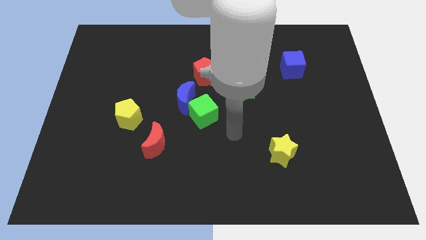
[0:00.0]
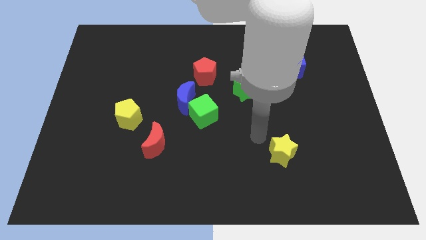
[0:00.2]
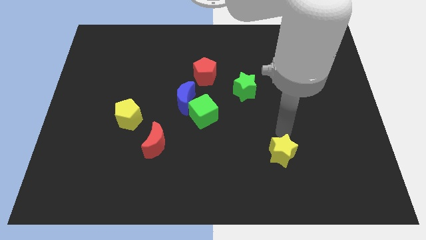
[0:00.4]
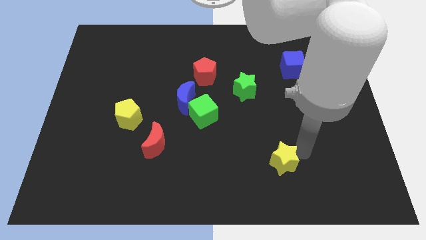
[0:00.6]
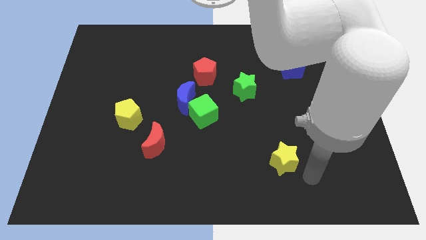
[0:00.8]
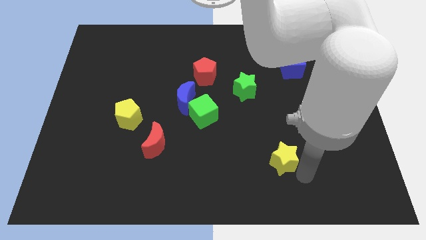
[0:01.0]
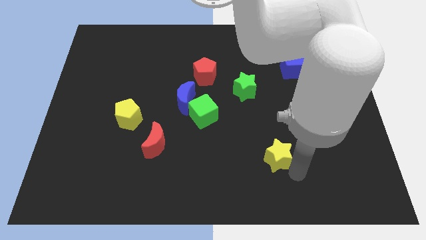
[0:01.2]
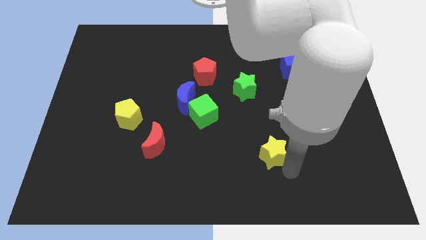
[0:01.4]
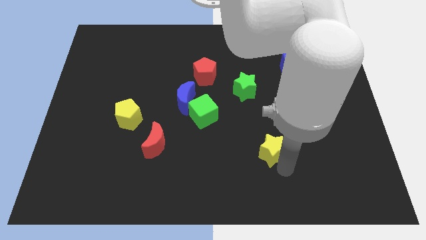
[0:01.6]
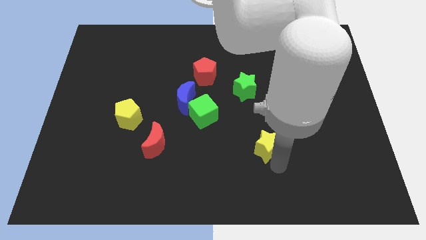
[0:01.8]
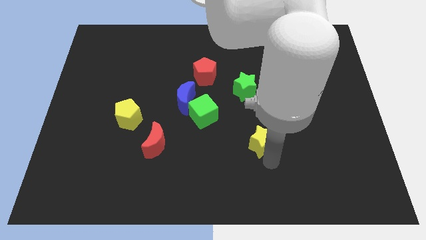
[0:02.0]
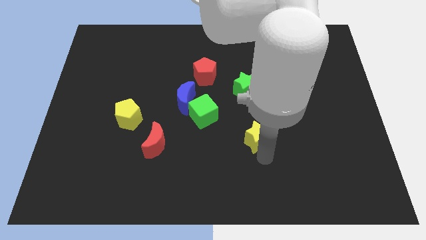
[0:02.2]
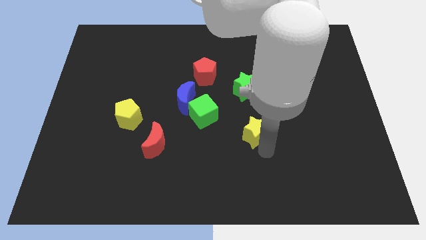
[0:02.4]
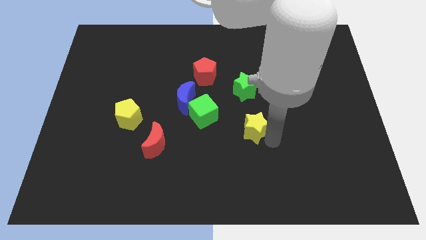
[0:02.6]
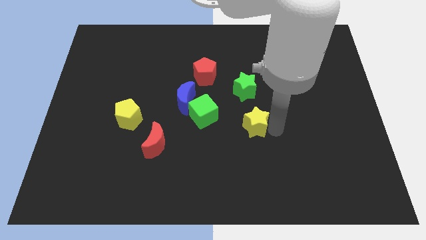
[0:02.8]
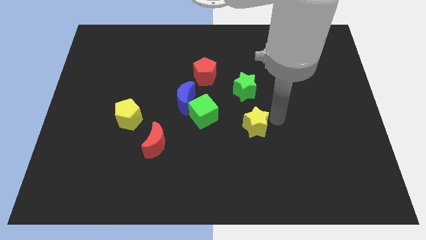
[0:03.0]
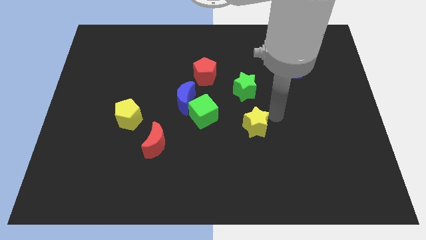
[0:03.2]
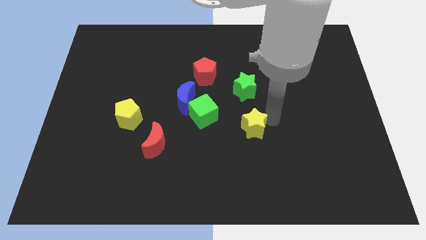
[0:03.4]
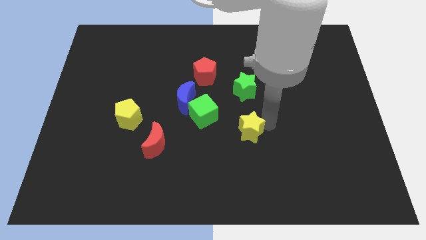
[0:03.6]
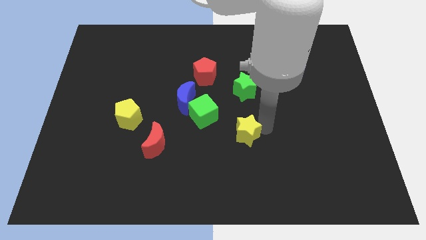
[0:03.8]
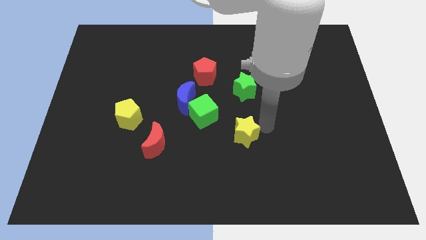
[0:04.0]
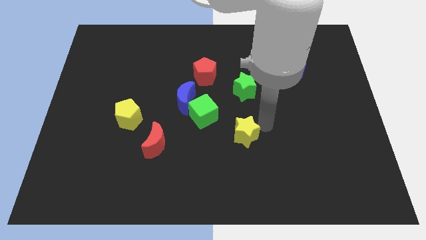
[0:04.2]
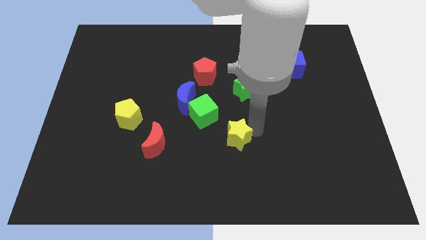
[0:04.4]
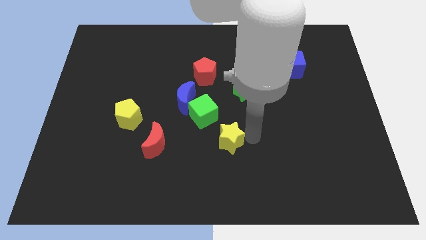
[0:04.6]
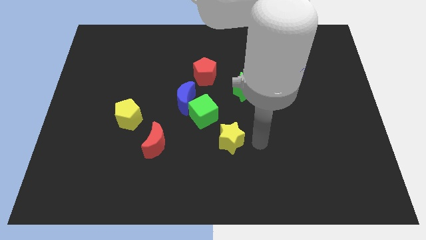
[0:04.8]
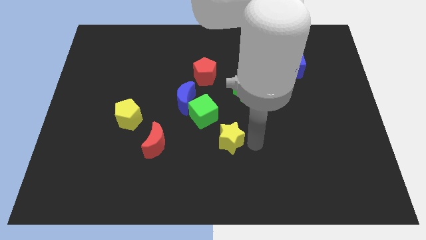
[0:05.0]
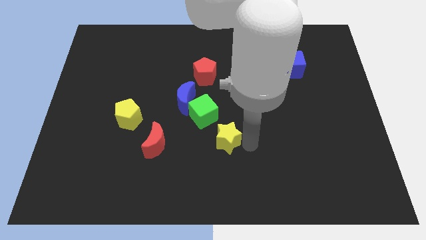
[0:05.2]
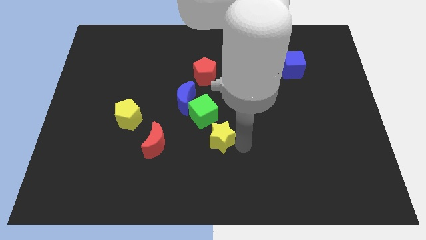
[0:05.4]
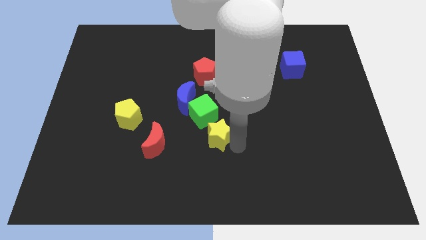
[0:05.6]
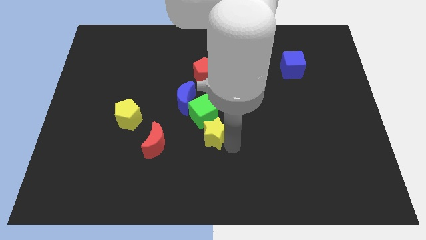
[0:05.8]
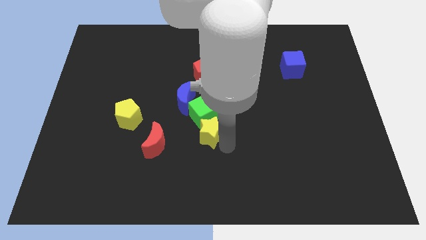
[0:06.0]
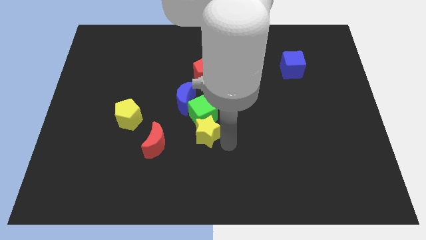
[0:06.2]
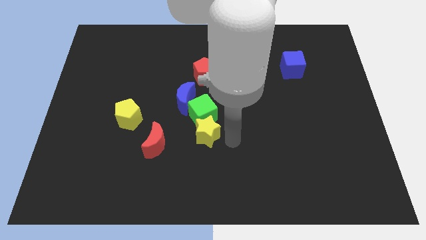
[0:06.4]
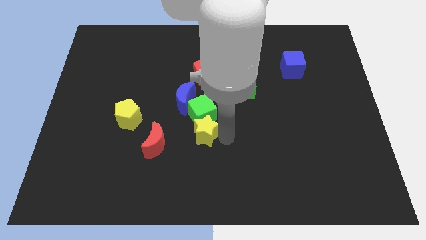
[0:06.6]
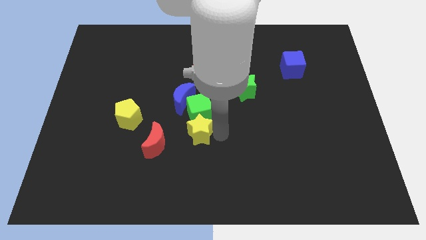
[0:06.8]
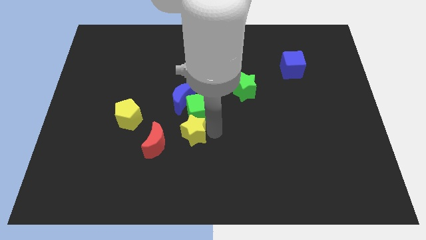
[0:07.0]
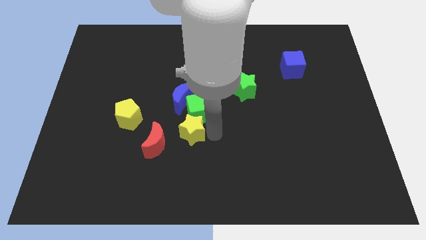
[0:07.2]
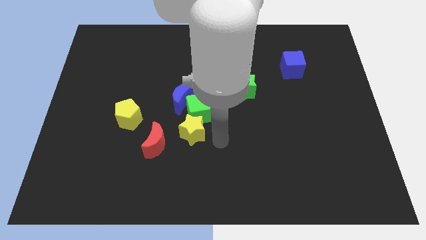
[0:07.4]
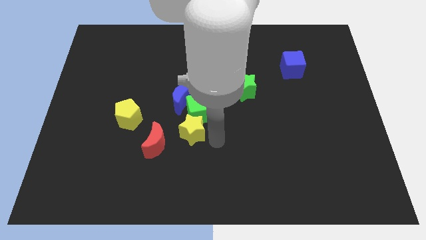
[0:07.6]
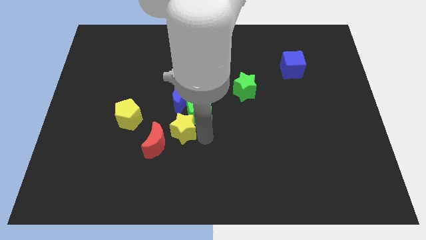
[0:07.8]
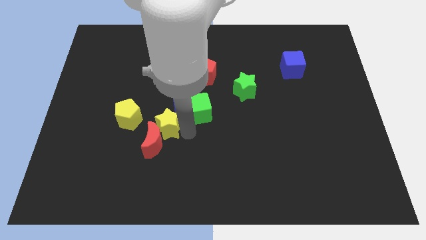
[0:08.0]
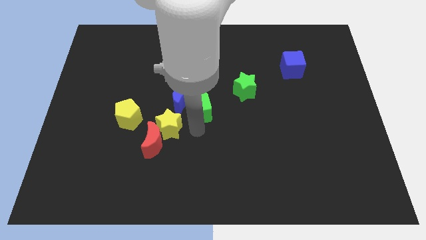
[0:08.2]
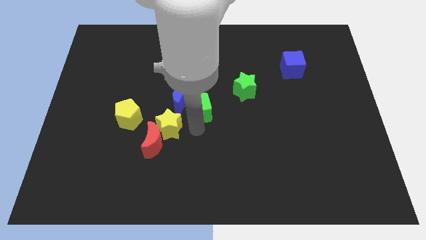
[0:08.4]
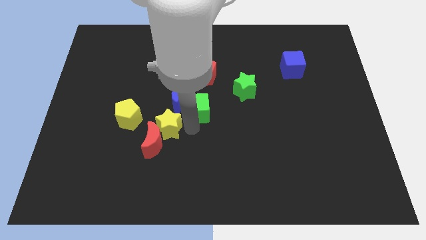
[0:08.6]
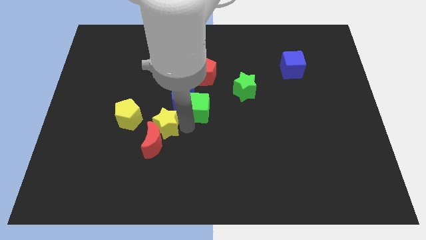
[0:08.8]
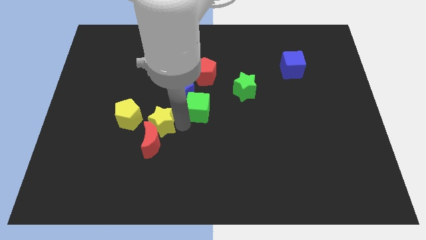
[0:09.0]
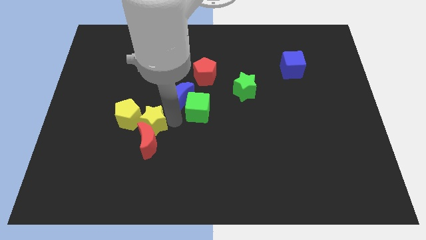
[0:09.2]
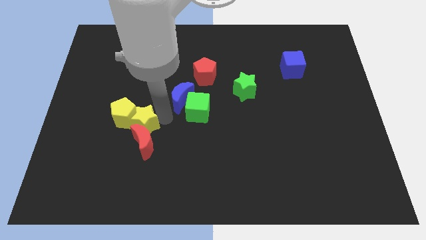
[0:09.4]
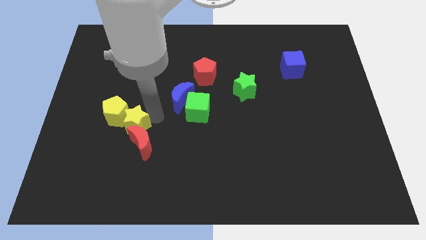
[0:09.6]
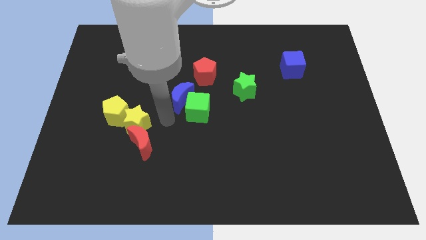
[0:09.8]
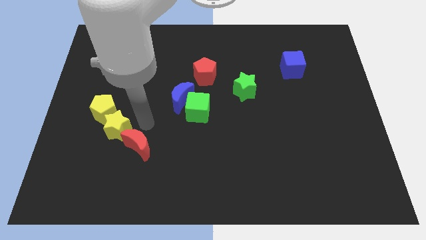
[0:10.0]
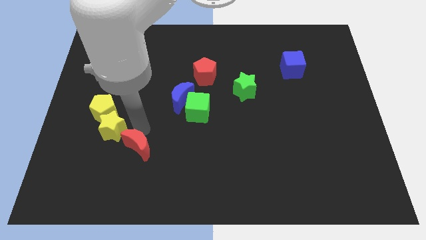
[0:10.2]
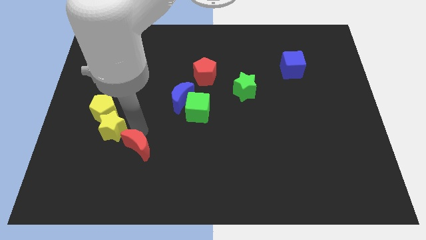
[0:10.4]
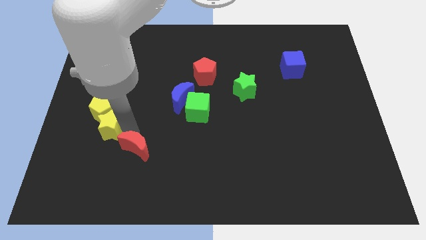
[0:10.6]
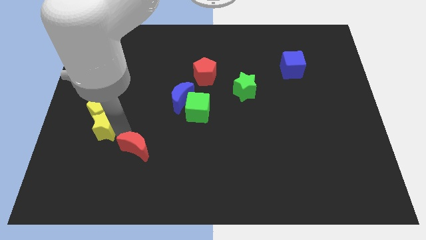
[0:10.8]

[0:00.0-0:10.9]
move the yellow star diagonally down and to the left of the yellow pentagon

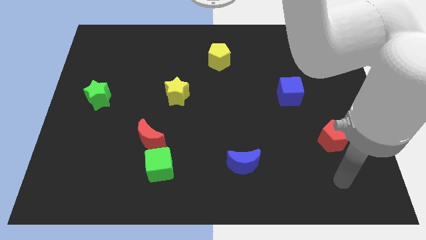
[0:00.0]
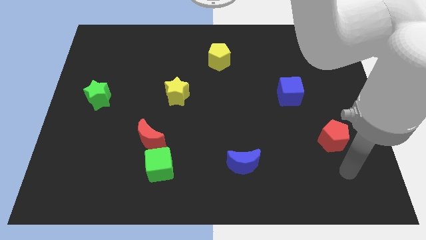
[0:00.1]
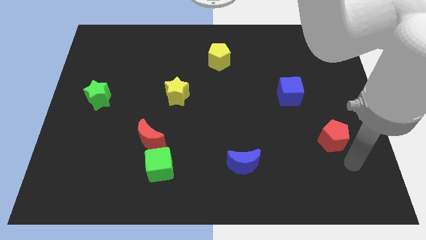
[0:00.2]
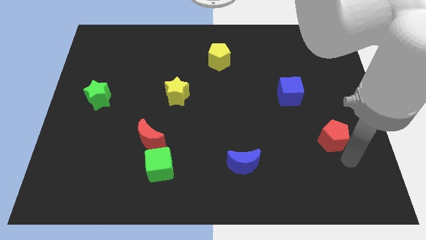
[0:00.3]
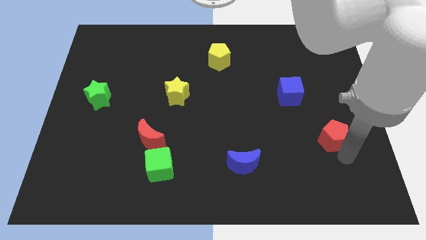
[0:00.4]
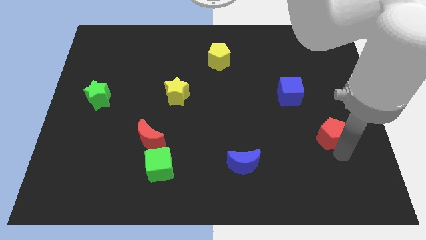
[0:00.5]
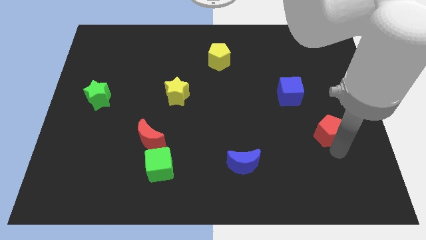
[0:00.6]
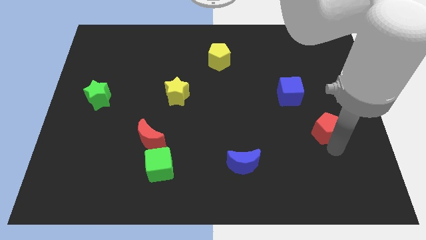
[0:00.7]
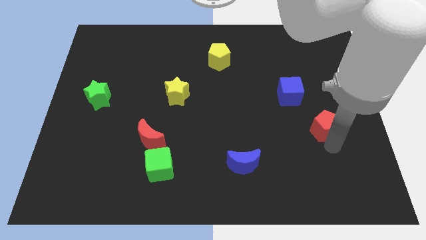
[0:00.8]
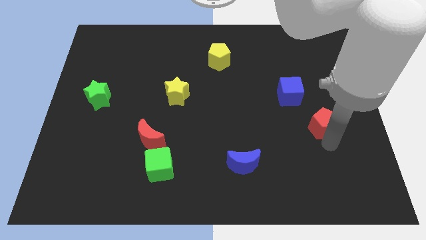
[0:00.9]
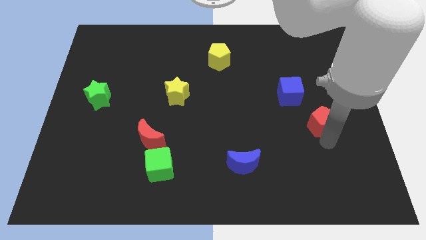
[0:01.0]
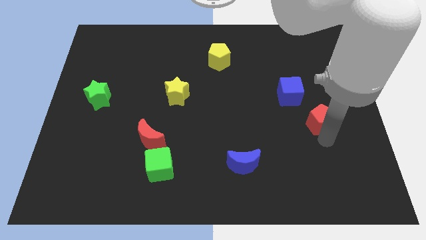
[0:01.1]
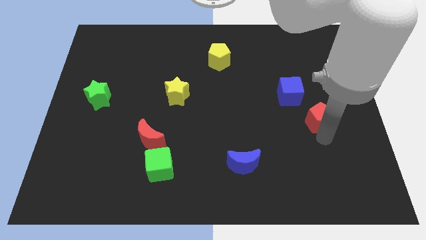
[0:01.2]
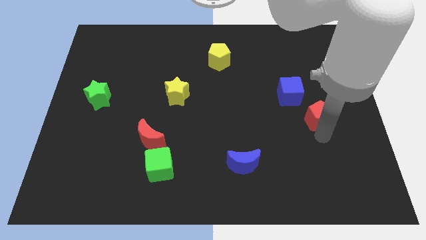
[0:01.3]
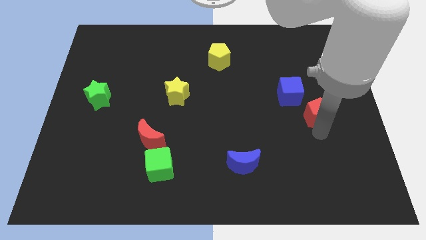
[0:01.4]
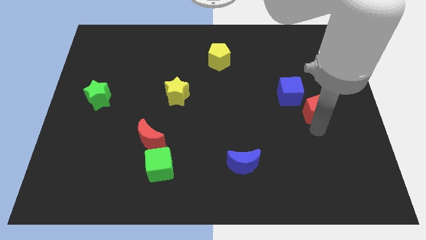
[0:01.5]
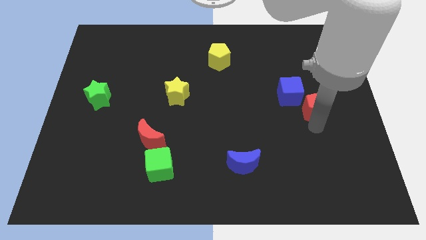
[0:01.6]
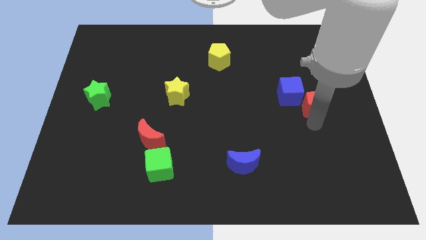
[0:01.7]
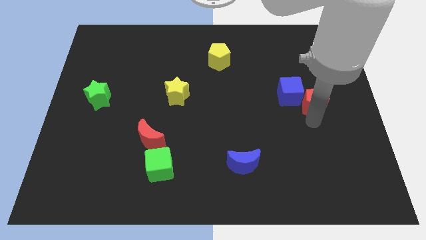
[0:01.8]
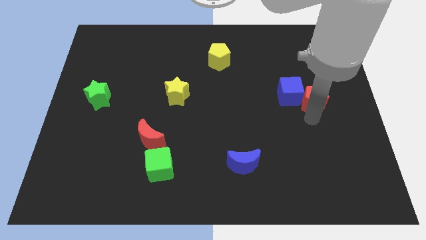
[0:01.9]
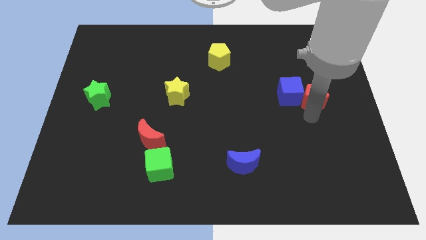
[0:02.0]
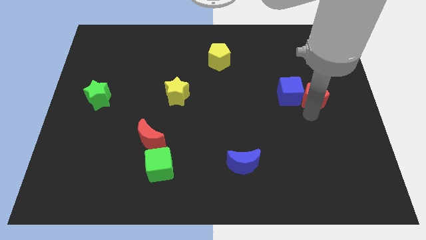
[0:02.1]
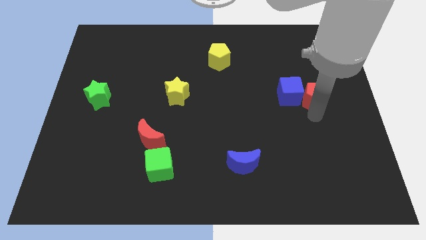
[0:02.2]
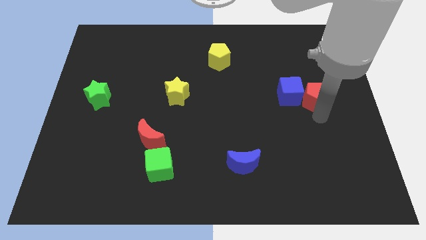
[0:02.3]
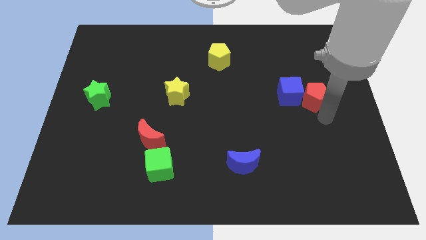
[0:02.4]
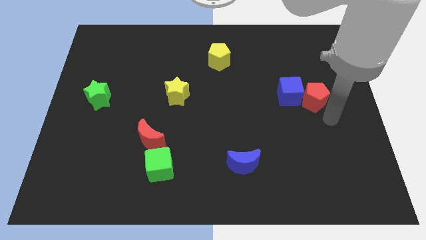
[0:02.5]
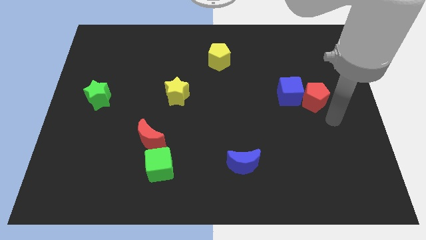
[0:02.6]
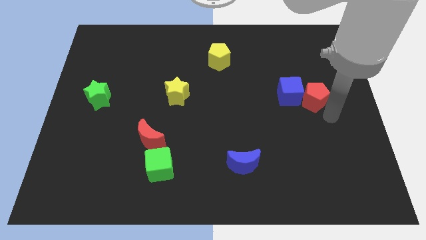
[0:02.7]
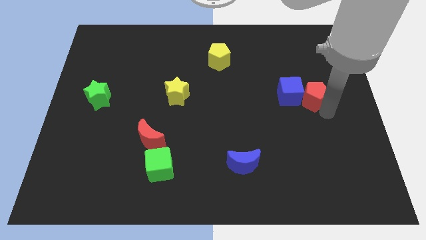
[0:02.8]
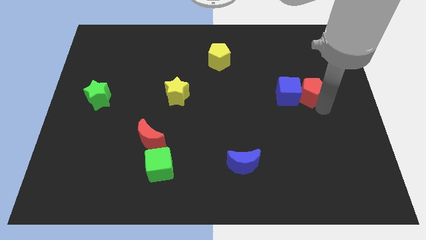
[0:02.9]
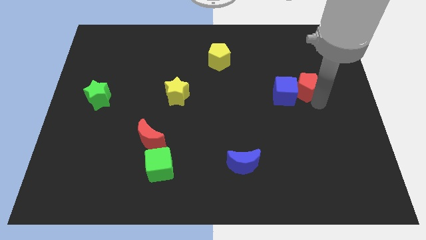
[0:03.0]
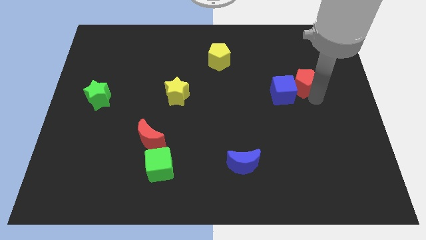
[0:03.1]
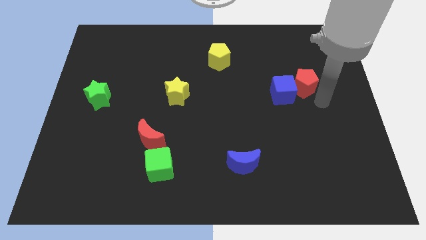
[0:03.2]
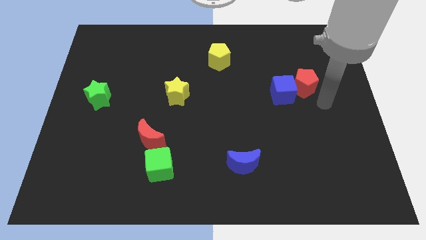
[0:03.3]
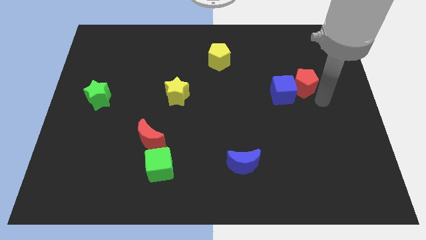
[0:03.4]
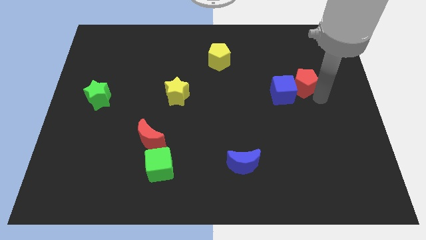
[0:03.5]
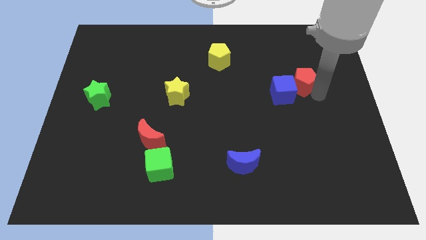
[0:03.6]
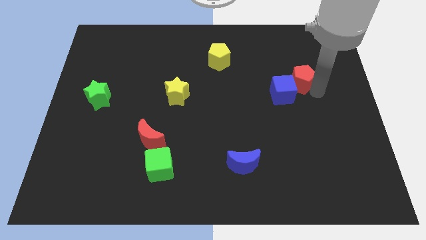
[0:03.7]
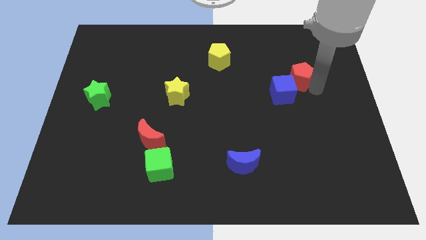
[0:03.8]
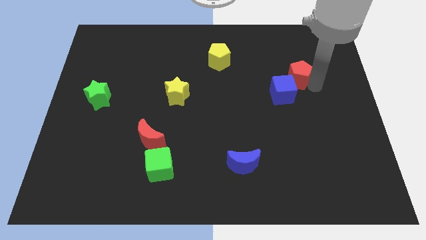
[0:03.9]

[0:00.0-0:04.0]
push the red pentagon to the top of the blue cube
